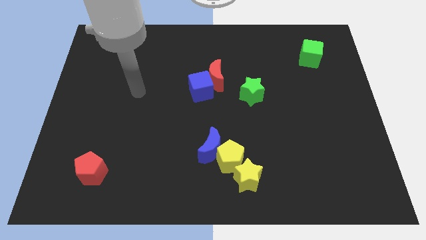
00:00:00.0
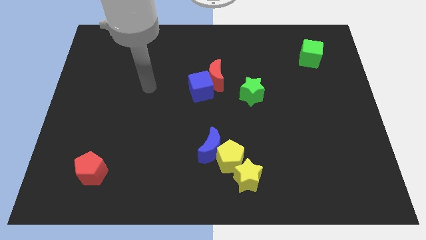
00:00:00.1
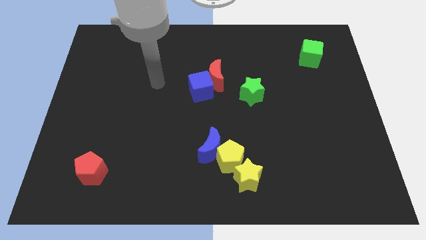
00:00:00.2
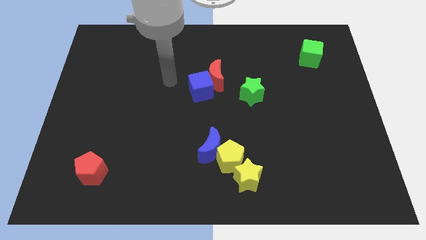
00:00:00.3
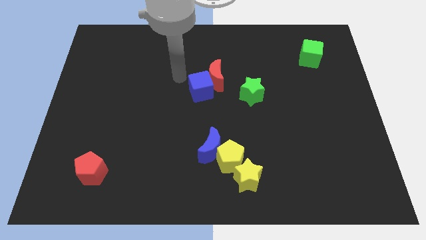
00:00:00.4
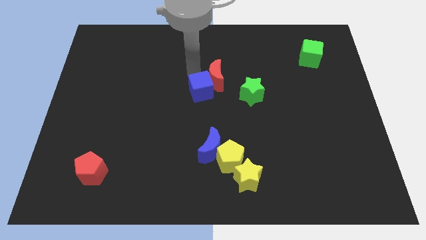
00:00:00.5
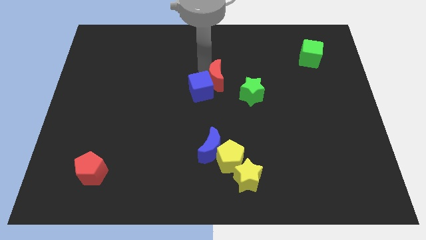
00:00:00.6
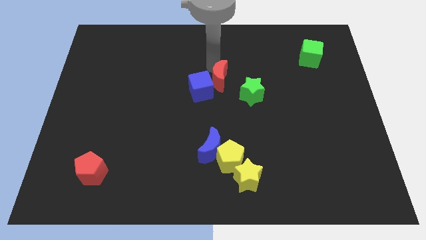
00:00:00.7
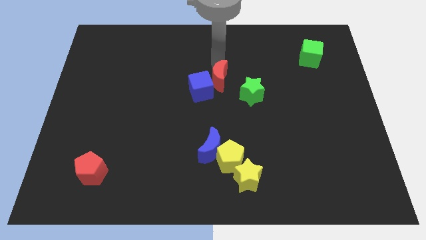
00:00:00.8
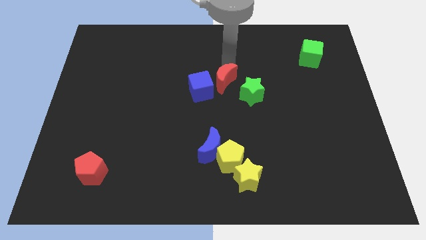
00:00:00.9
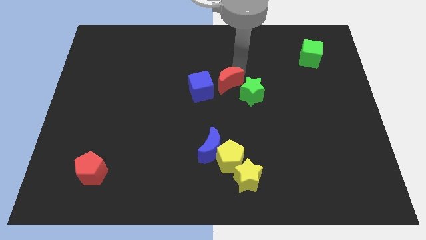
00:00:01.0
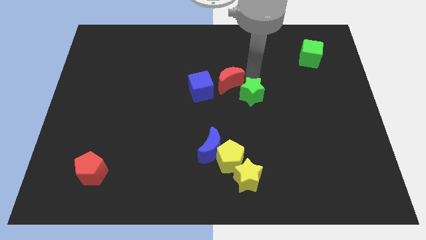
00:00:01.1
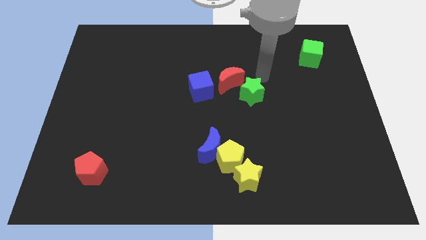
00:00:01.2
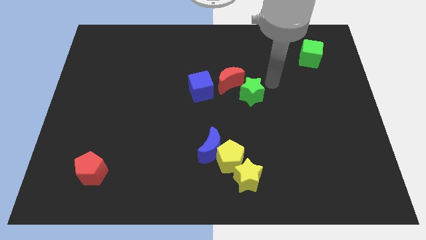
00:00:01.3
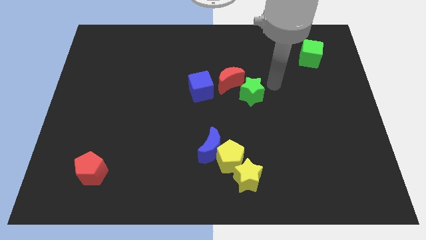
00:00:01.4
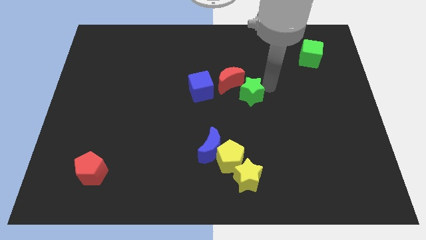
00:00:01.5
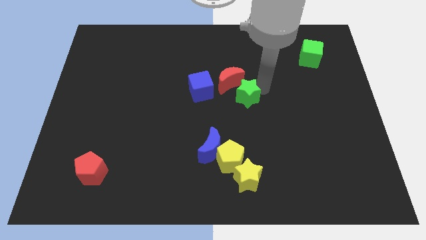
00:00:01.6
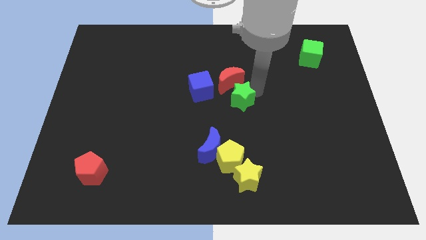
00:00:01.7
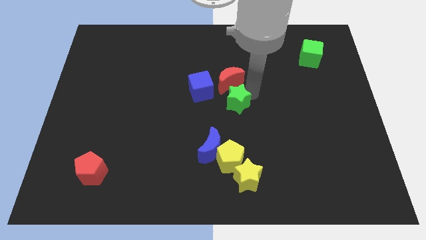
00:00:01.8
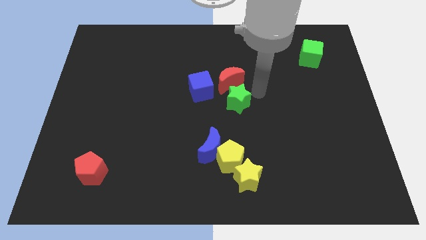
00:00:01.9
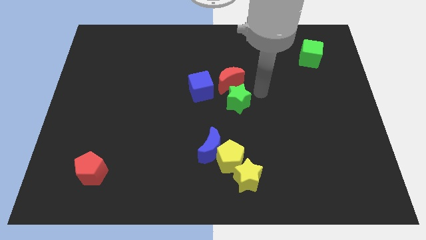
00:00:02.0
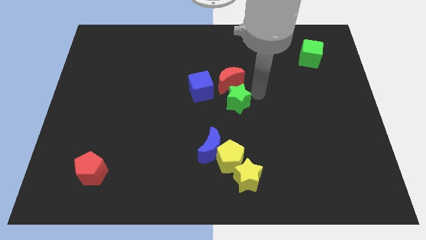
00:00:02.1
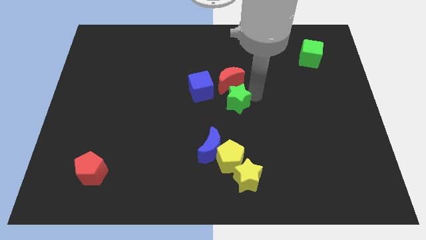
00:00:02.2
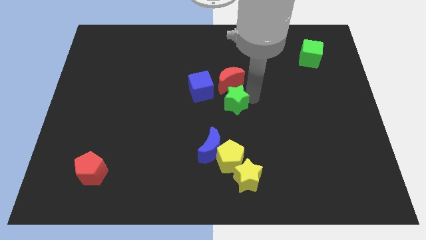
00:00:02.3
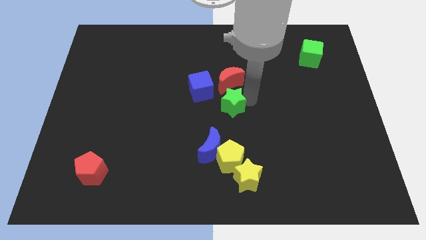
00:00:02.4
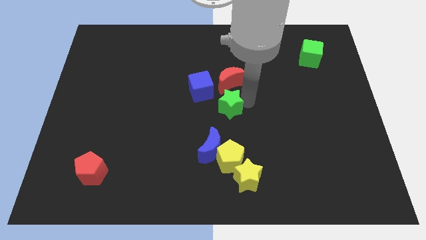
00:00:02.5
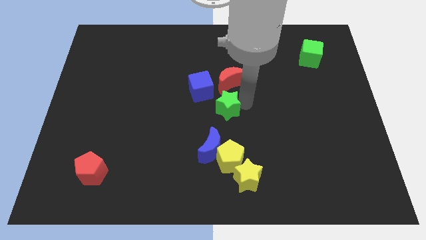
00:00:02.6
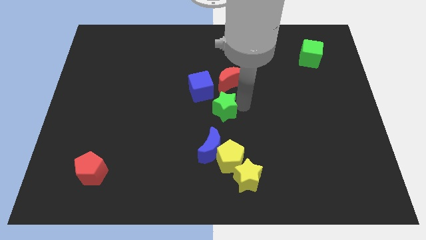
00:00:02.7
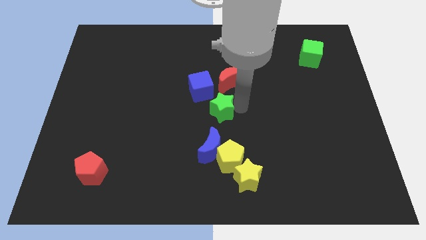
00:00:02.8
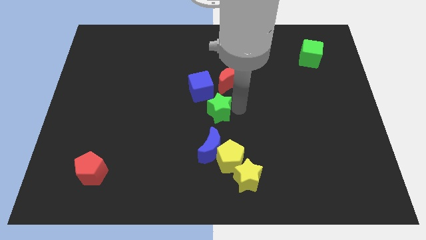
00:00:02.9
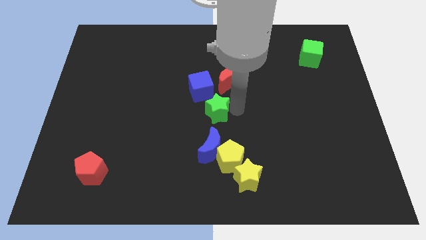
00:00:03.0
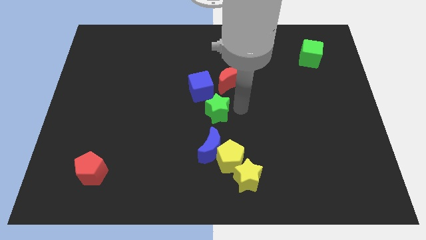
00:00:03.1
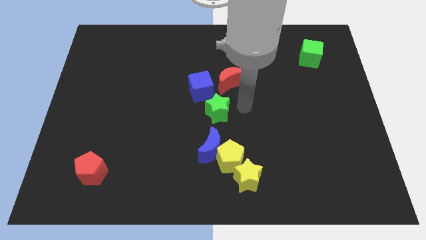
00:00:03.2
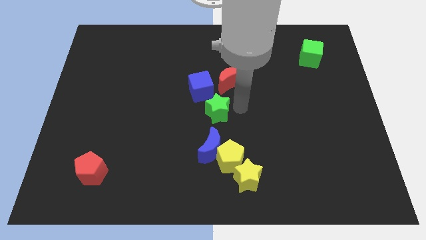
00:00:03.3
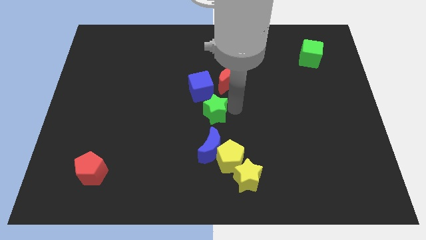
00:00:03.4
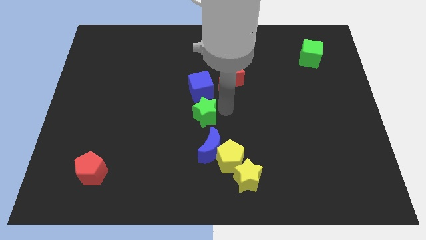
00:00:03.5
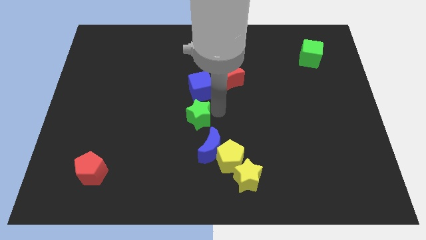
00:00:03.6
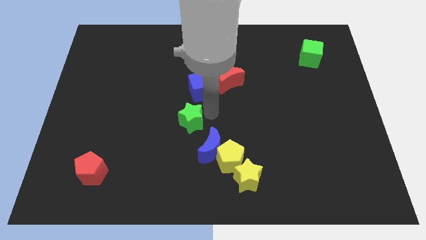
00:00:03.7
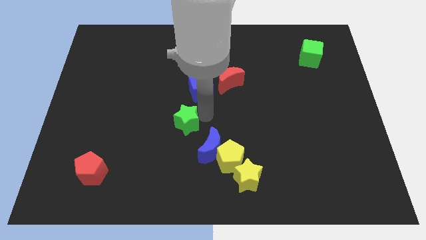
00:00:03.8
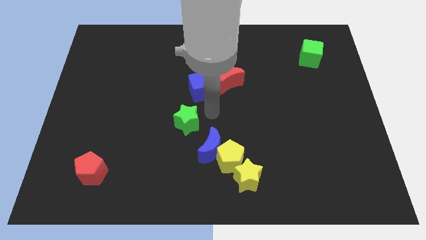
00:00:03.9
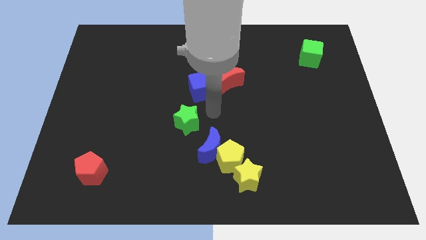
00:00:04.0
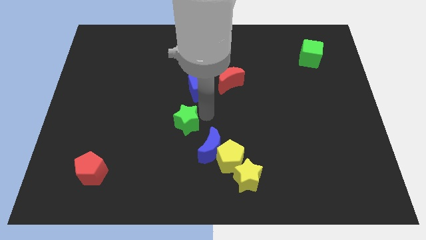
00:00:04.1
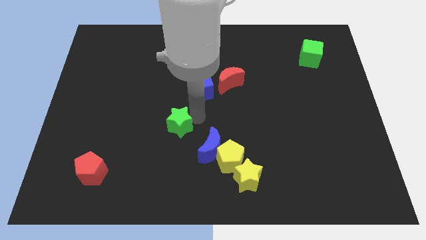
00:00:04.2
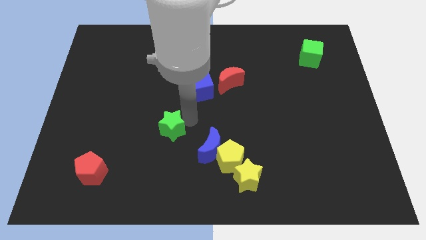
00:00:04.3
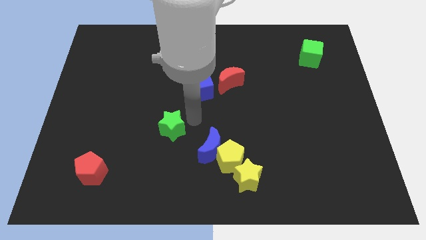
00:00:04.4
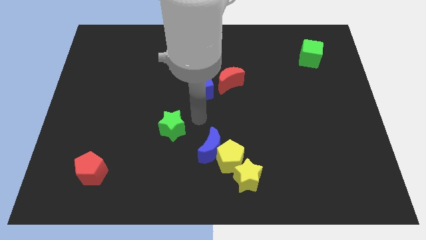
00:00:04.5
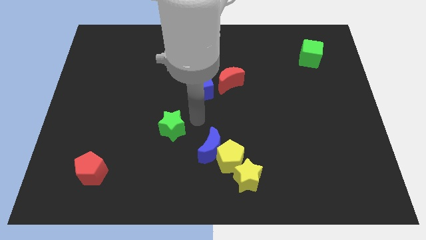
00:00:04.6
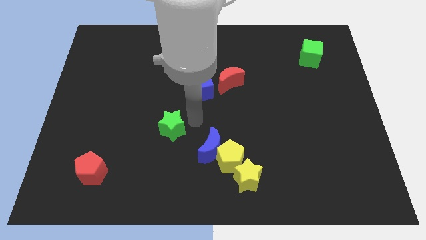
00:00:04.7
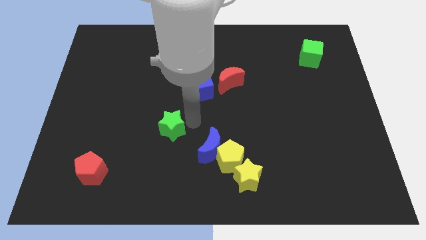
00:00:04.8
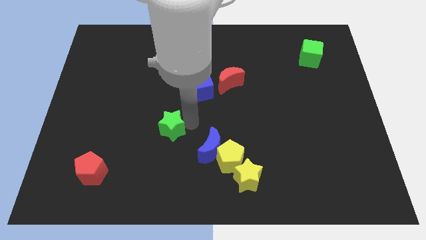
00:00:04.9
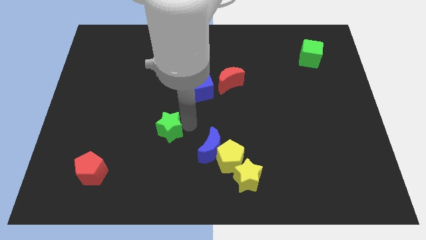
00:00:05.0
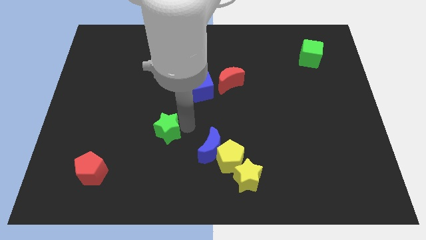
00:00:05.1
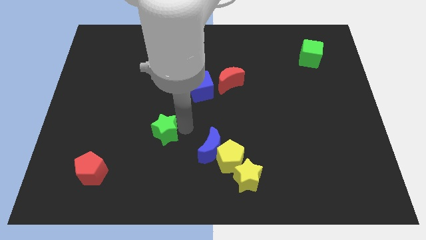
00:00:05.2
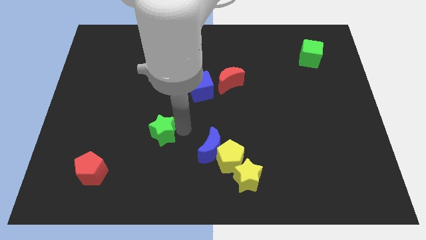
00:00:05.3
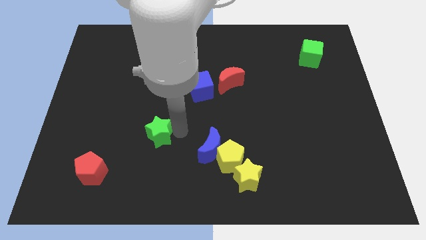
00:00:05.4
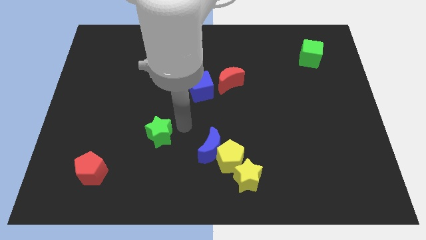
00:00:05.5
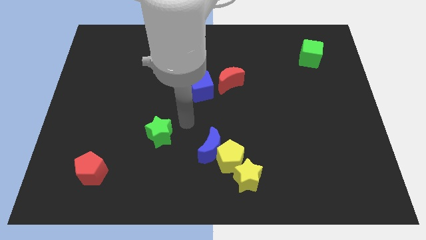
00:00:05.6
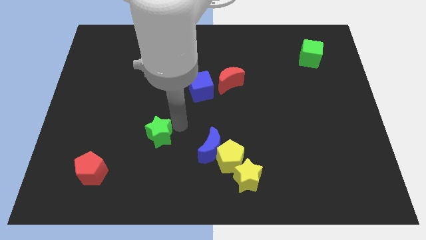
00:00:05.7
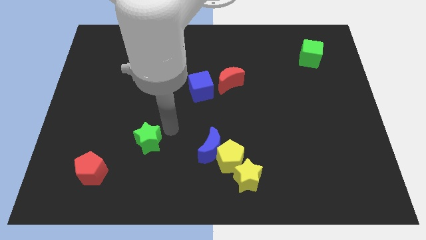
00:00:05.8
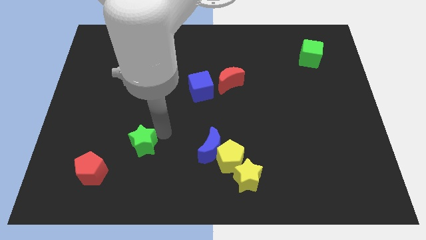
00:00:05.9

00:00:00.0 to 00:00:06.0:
push the green star diagonally up and to the right of the red pentagon

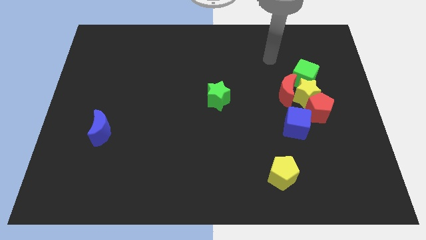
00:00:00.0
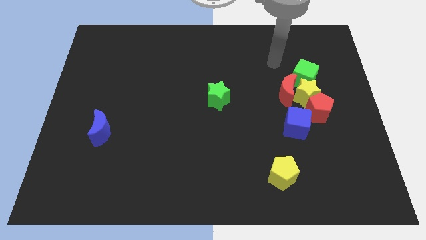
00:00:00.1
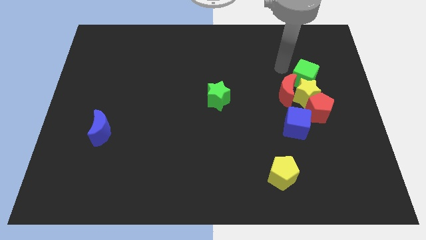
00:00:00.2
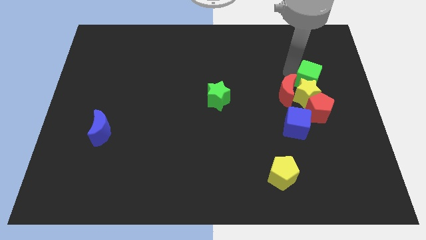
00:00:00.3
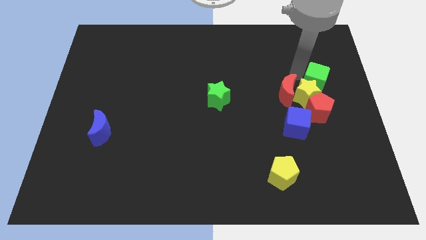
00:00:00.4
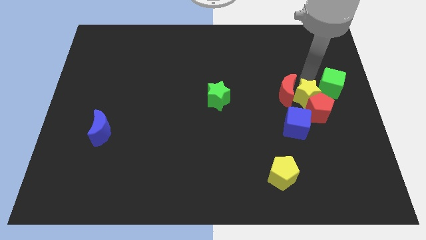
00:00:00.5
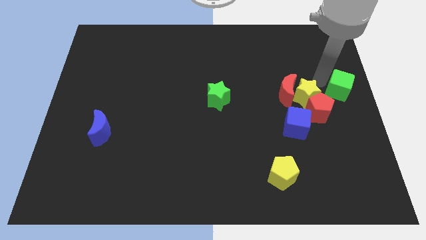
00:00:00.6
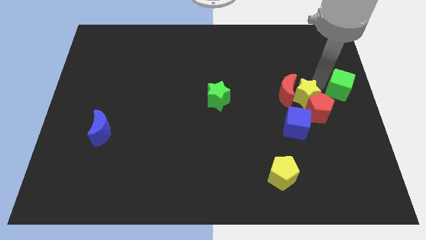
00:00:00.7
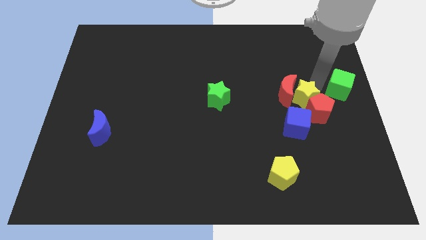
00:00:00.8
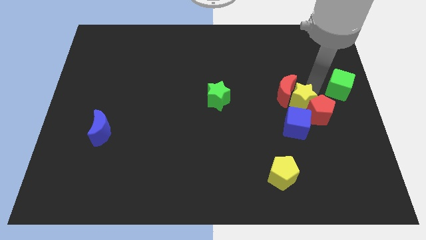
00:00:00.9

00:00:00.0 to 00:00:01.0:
put the yellow star to the bottom of the red moon
